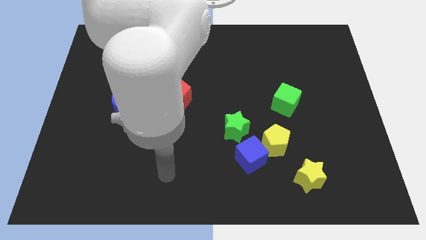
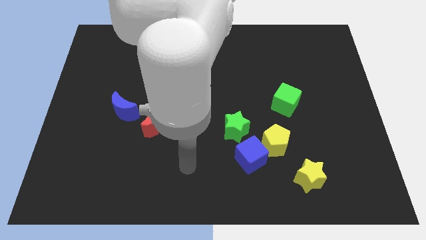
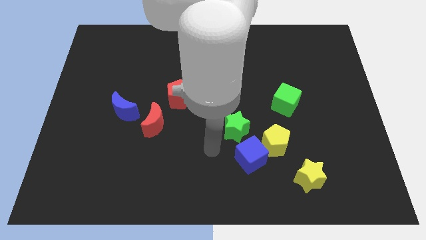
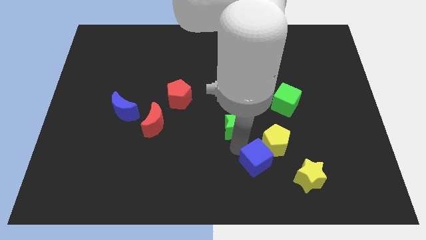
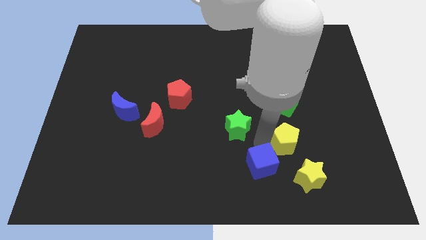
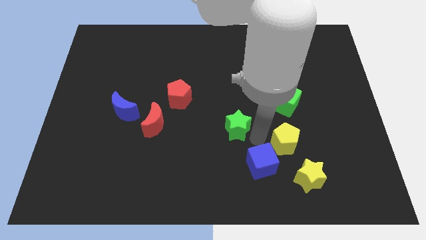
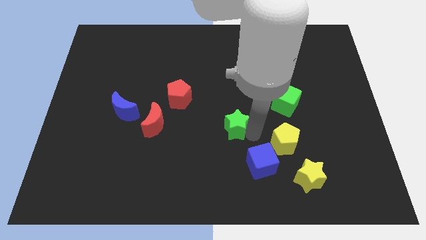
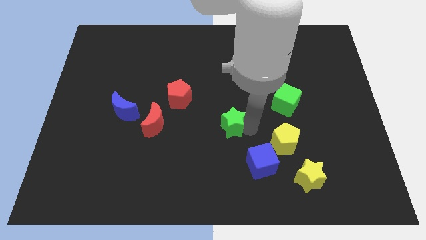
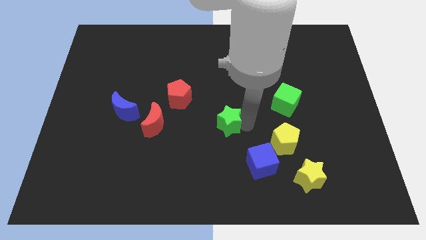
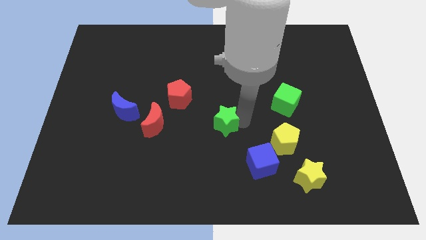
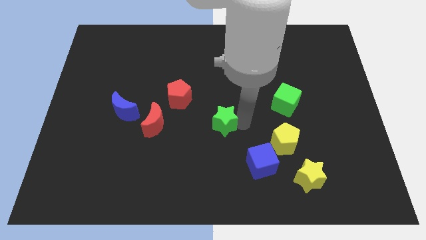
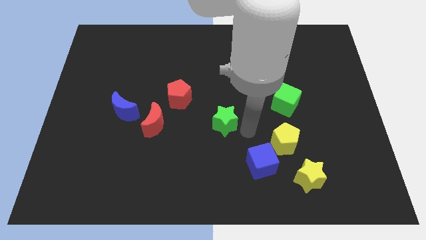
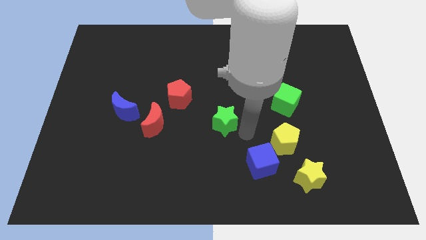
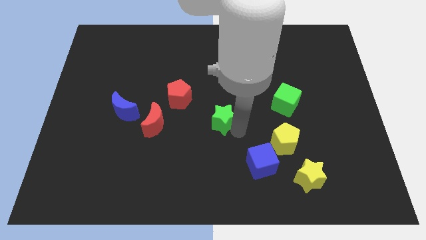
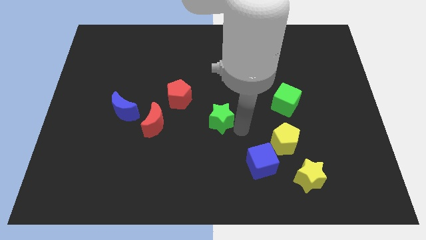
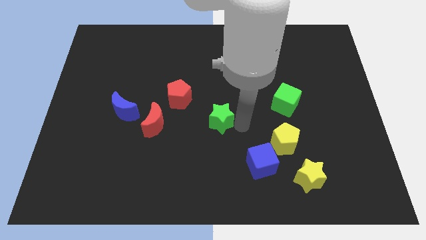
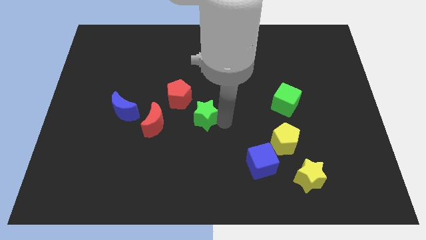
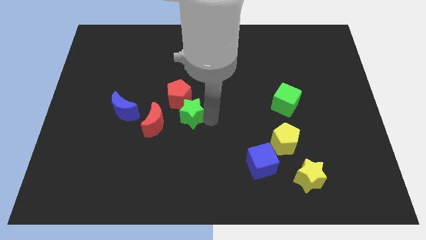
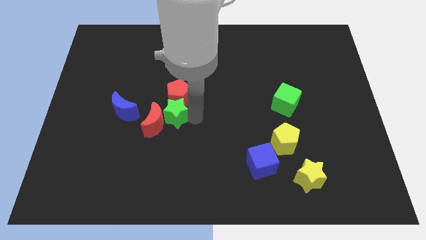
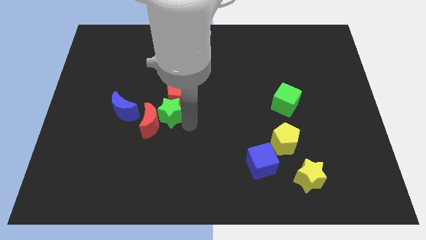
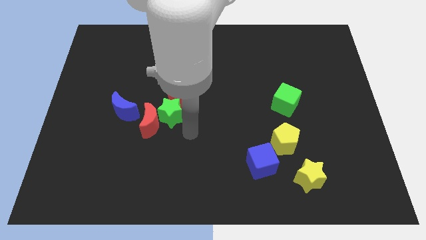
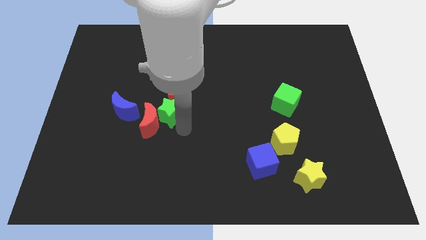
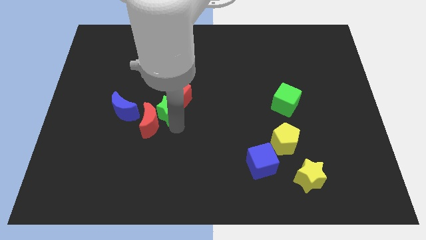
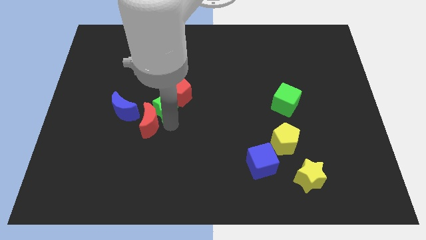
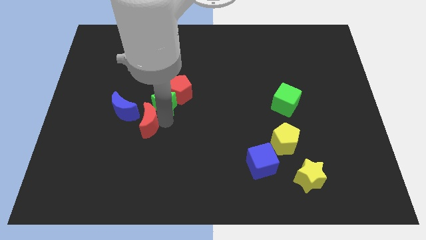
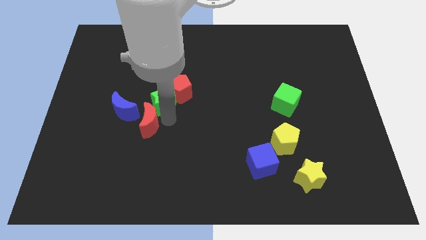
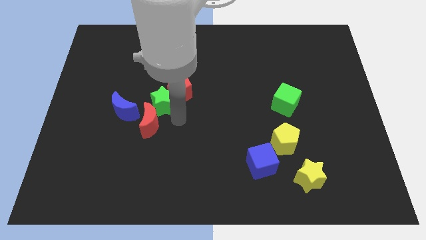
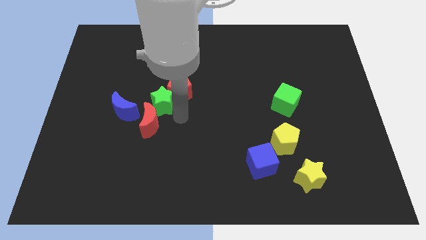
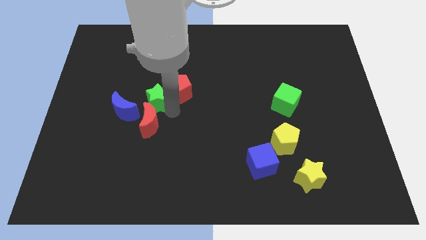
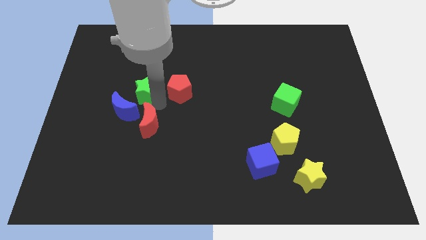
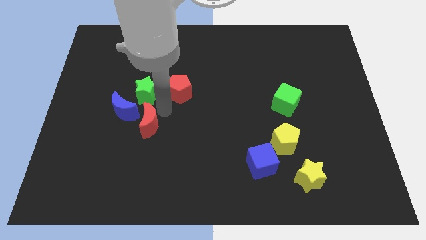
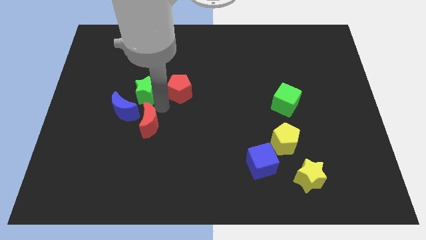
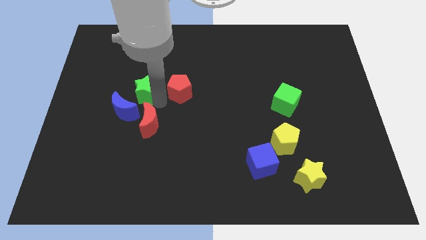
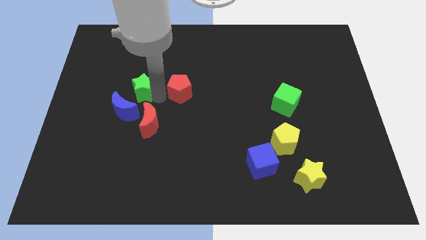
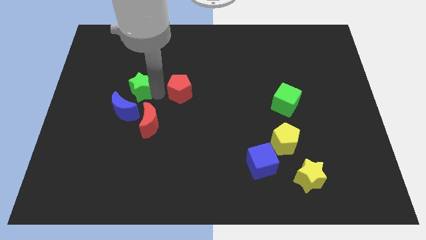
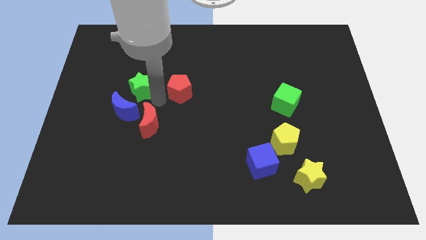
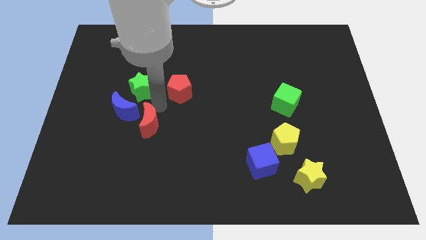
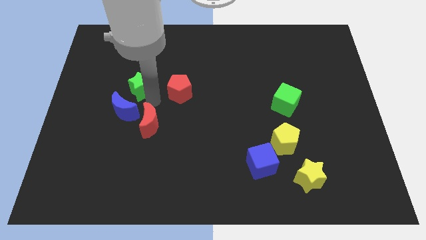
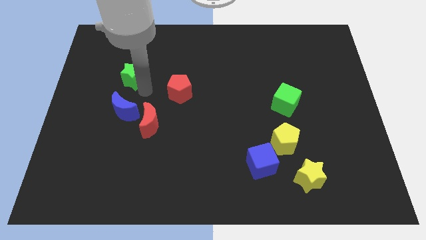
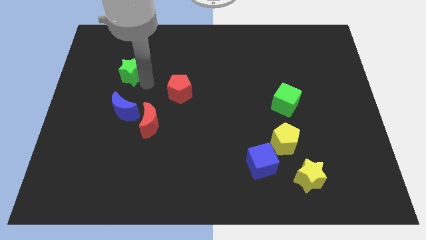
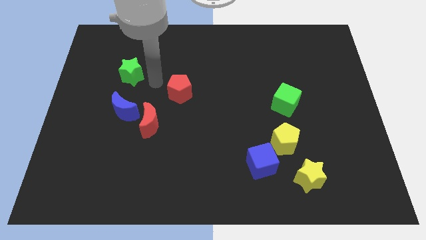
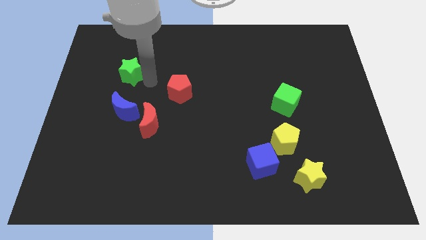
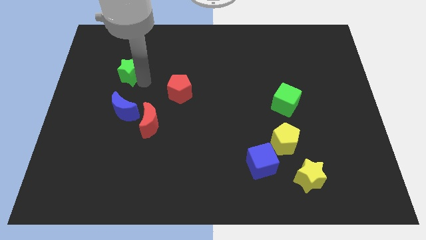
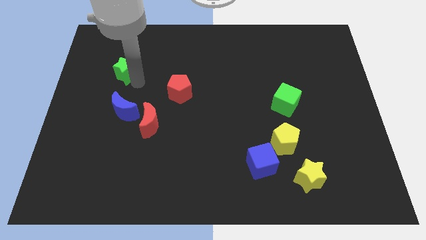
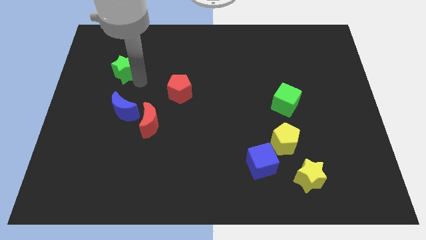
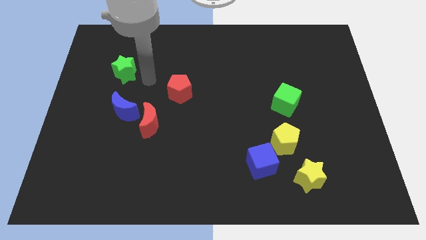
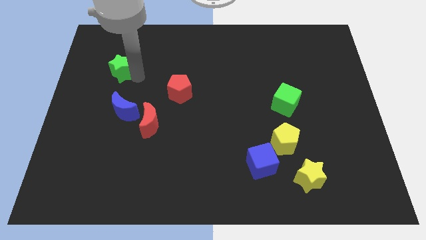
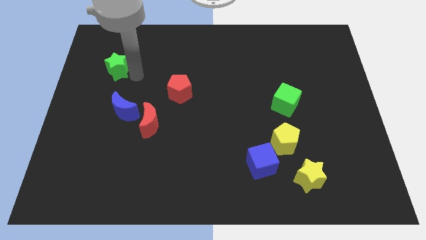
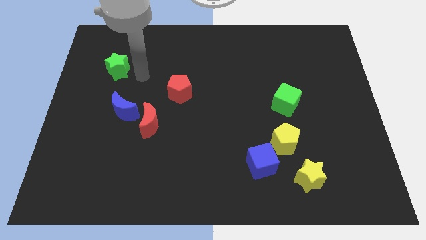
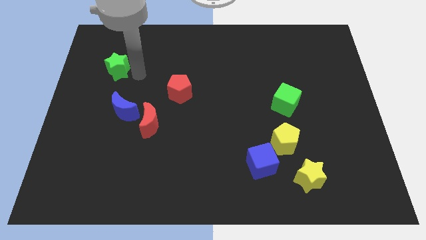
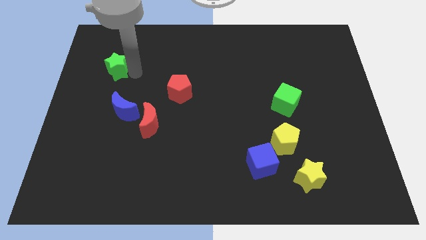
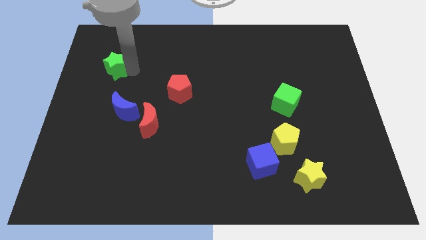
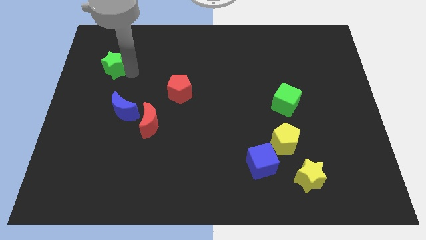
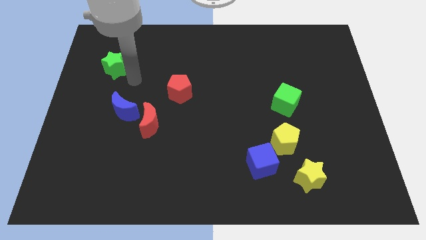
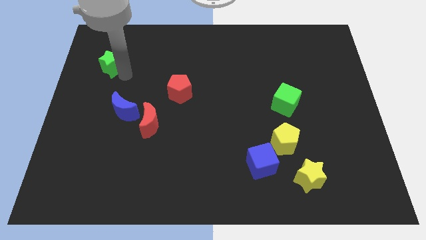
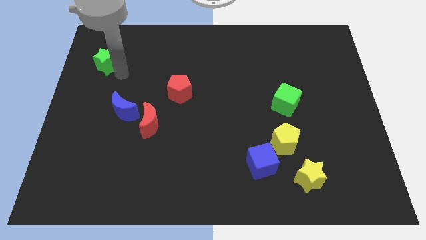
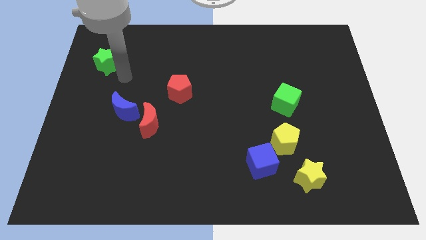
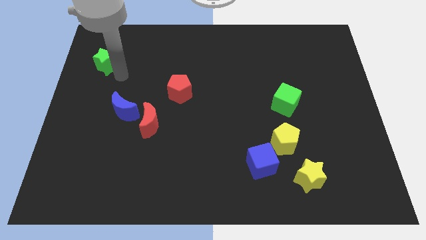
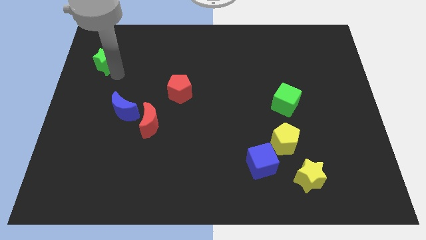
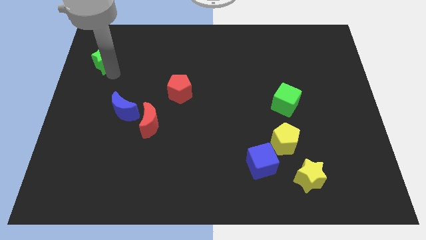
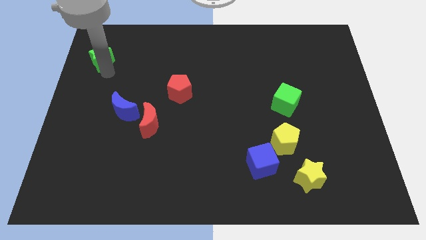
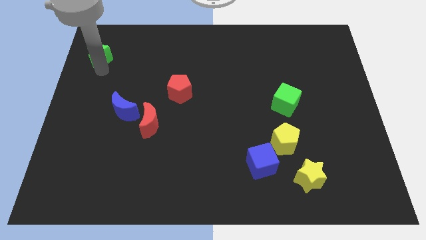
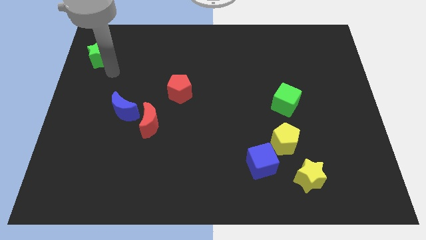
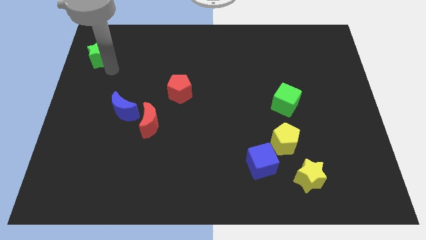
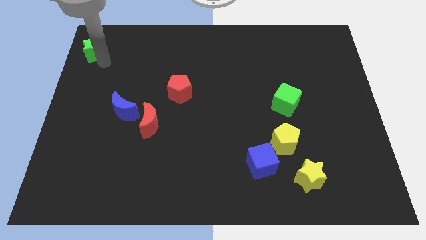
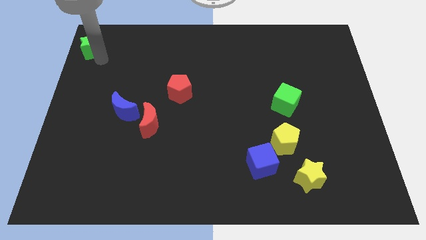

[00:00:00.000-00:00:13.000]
put the green star to the top left
